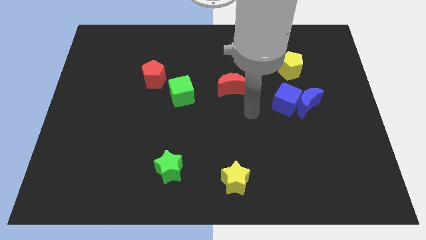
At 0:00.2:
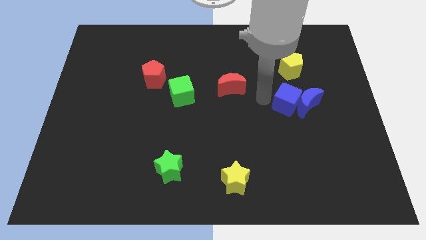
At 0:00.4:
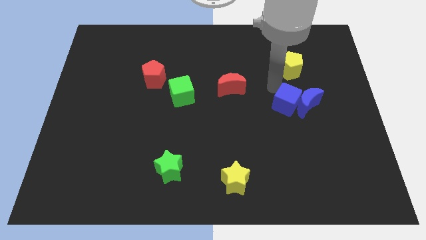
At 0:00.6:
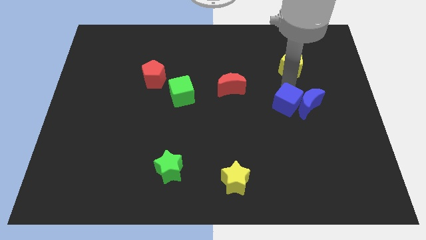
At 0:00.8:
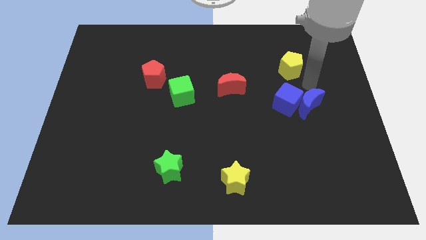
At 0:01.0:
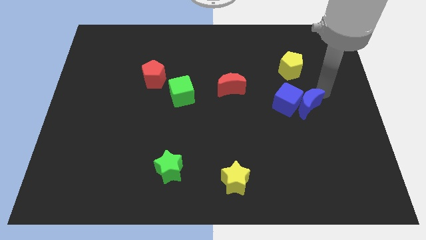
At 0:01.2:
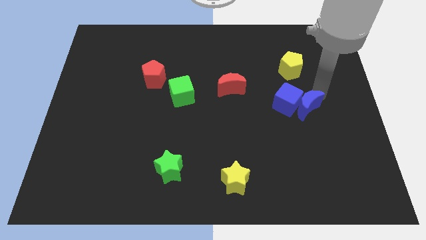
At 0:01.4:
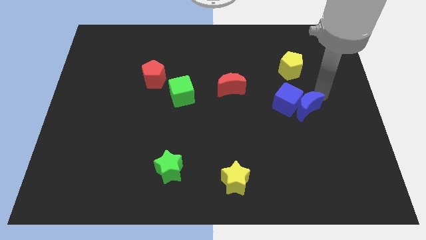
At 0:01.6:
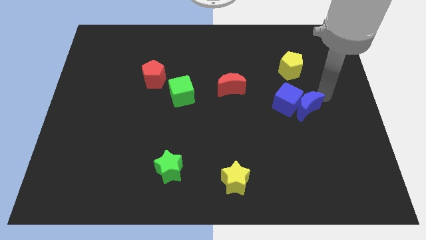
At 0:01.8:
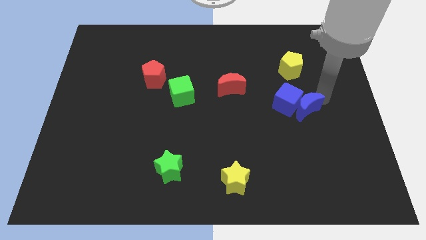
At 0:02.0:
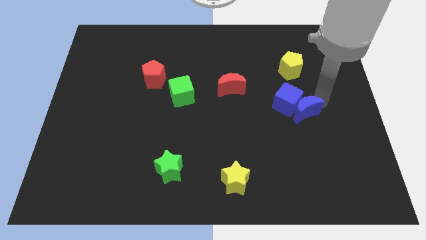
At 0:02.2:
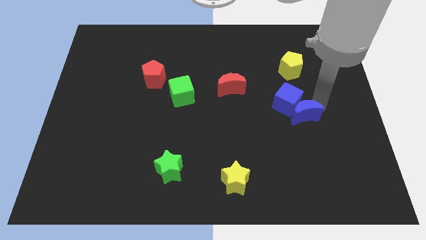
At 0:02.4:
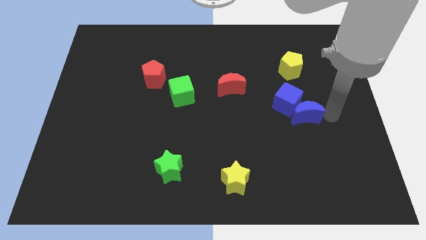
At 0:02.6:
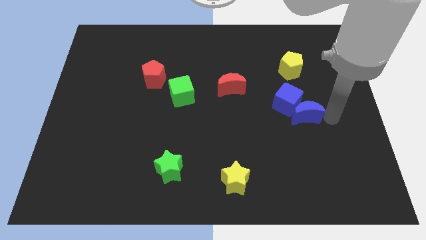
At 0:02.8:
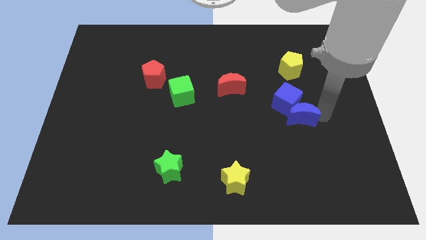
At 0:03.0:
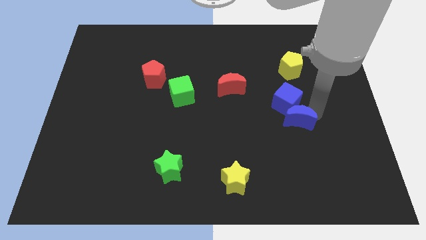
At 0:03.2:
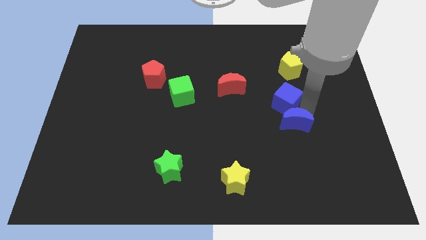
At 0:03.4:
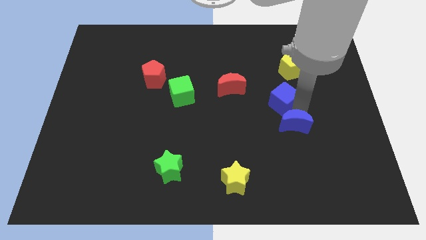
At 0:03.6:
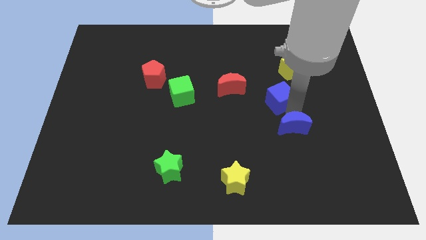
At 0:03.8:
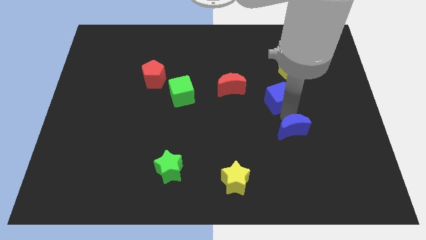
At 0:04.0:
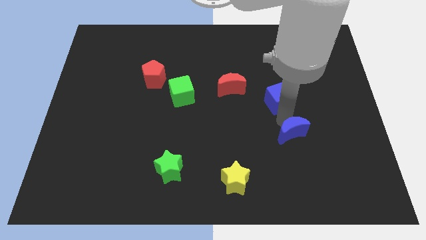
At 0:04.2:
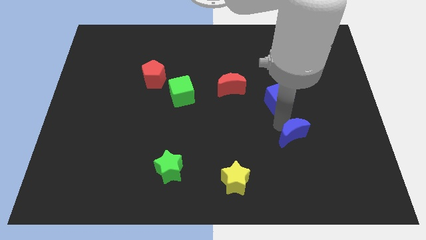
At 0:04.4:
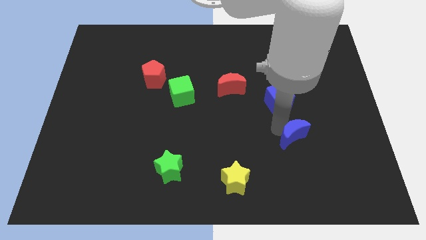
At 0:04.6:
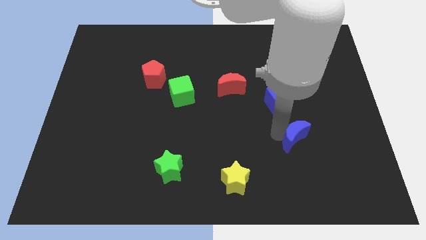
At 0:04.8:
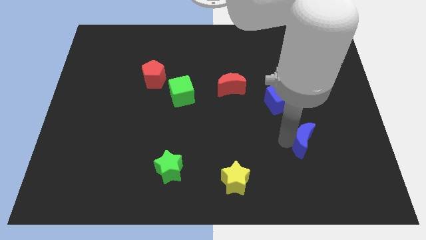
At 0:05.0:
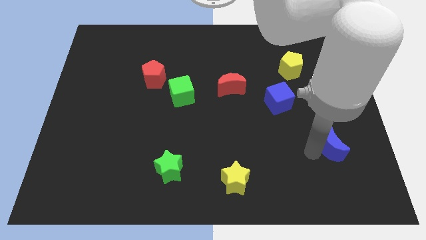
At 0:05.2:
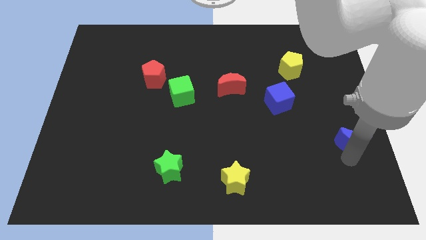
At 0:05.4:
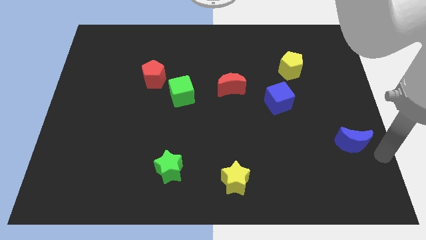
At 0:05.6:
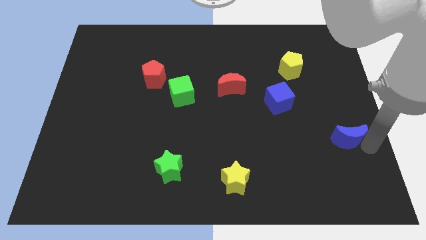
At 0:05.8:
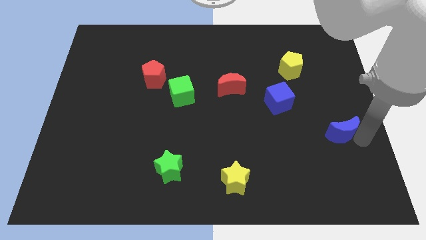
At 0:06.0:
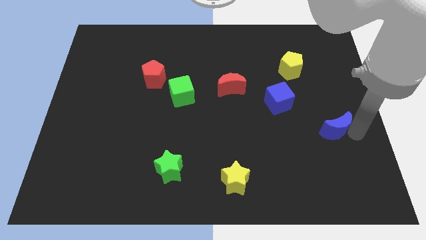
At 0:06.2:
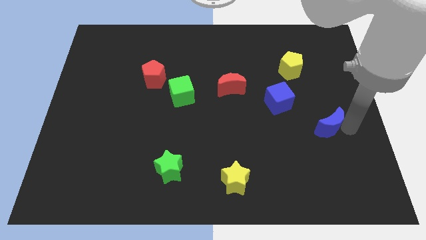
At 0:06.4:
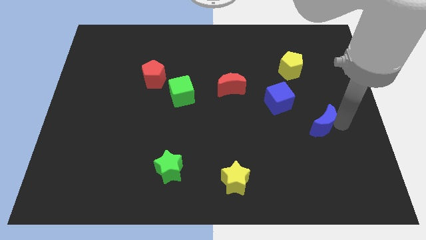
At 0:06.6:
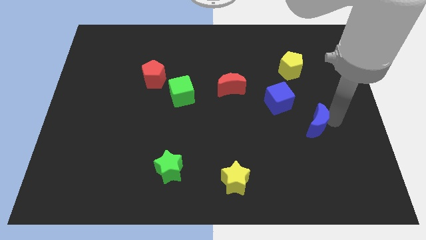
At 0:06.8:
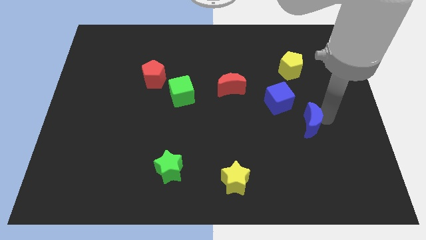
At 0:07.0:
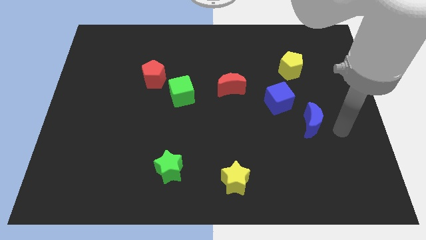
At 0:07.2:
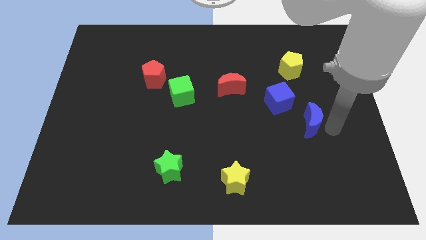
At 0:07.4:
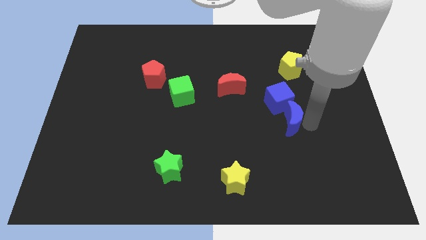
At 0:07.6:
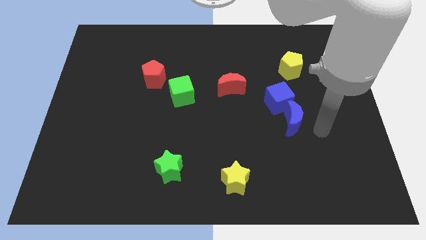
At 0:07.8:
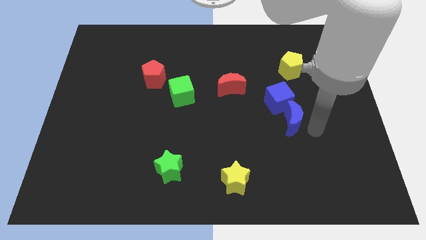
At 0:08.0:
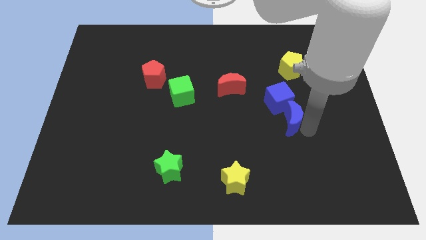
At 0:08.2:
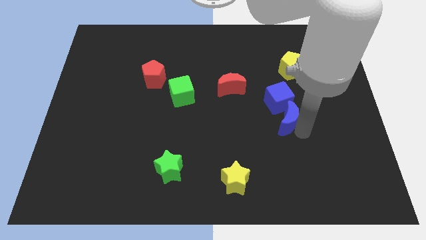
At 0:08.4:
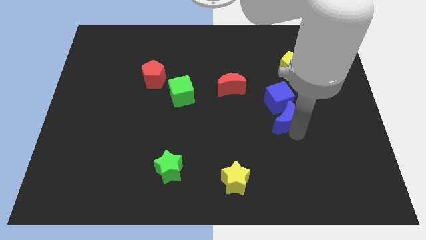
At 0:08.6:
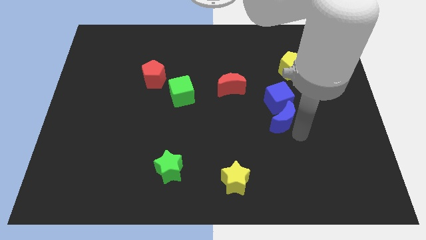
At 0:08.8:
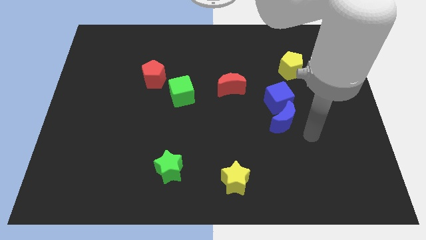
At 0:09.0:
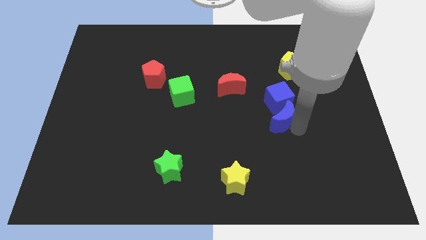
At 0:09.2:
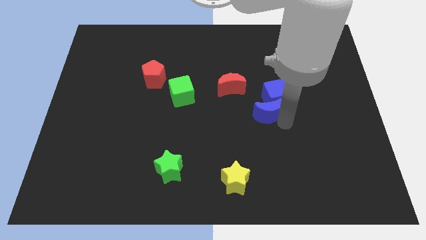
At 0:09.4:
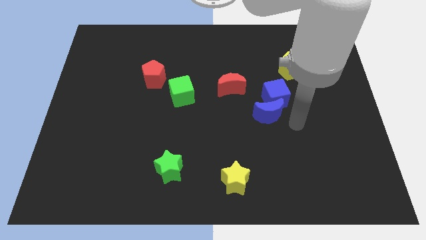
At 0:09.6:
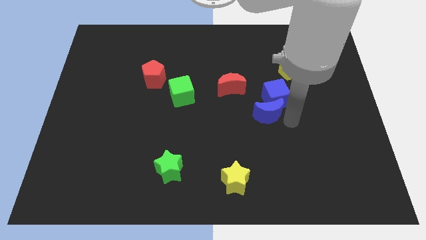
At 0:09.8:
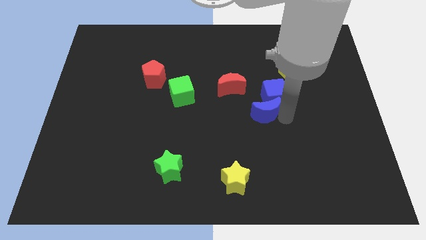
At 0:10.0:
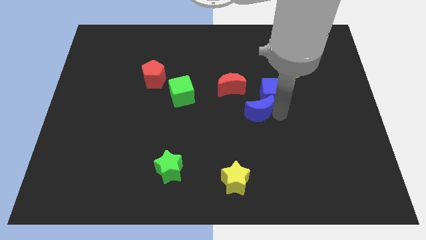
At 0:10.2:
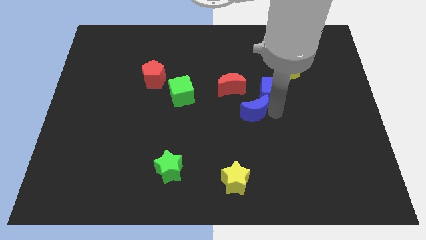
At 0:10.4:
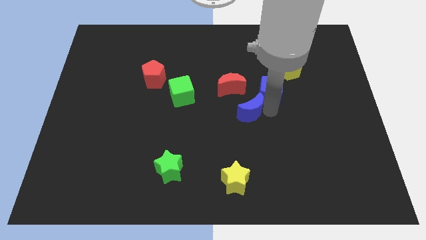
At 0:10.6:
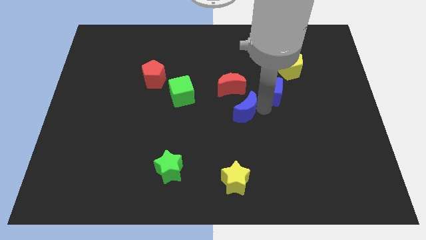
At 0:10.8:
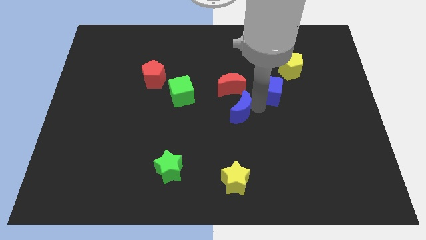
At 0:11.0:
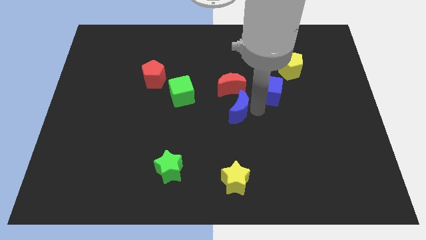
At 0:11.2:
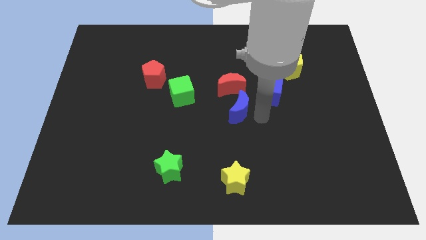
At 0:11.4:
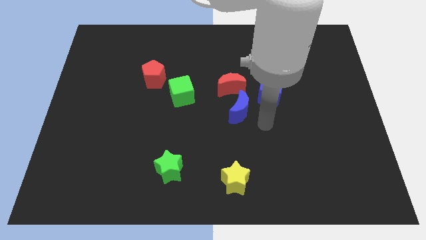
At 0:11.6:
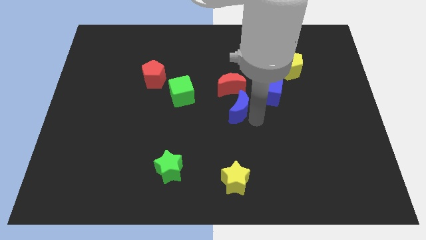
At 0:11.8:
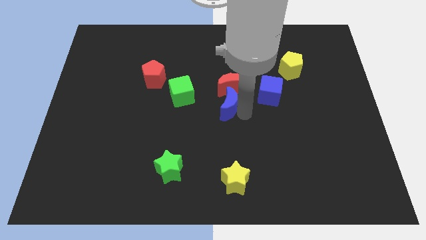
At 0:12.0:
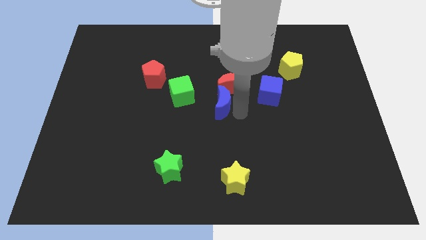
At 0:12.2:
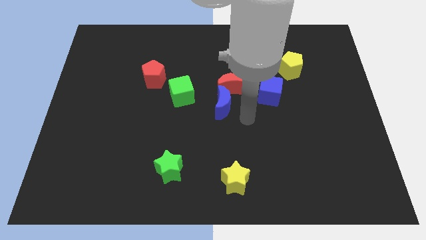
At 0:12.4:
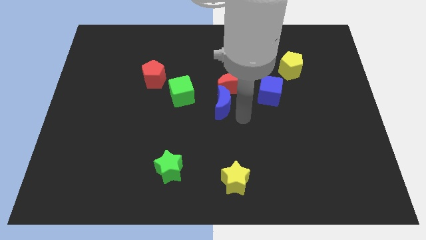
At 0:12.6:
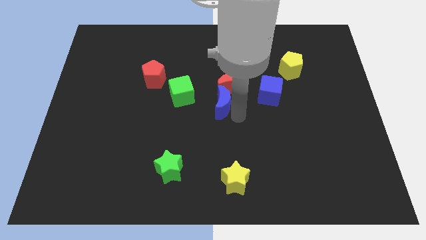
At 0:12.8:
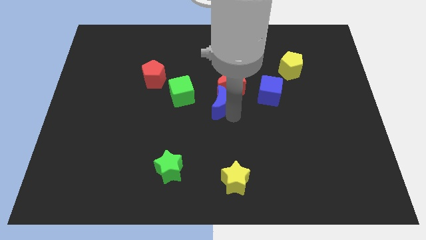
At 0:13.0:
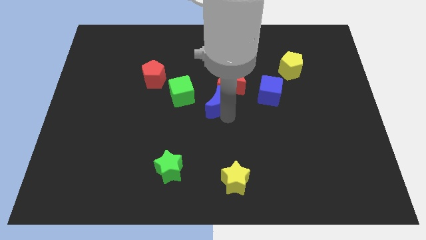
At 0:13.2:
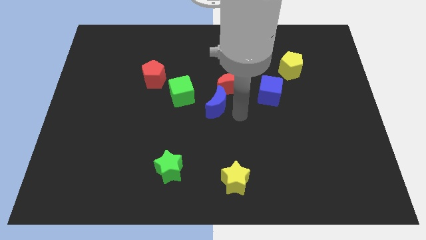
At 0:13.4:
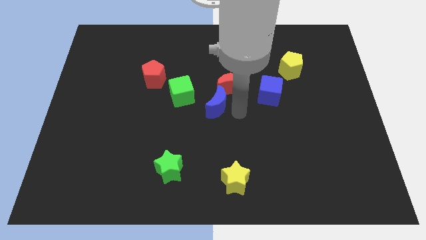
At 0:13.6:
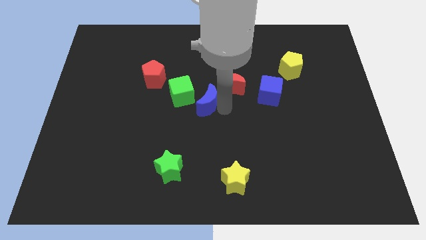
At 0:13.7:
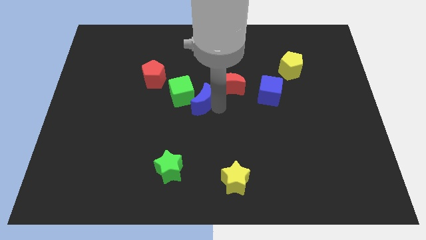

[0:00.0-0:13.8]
put the blue moon close to the green cube
